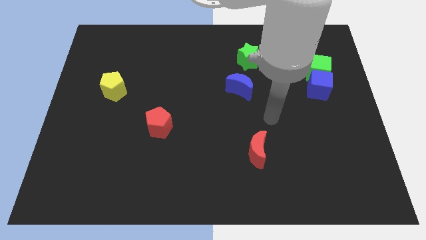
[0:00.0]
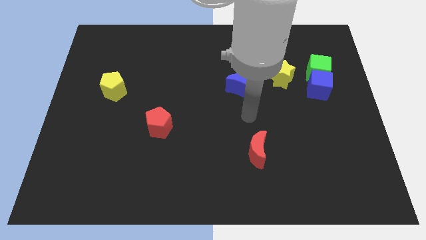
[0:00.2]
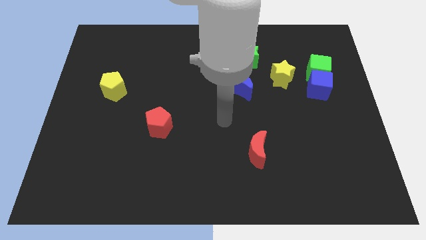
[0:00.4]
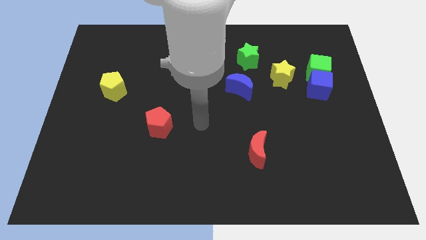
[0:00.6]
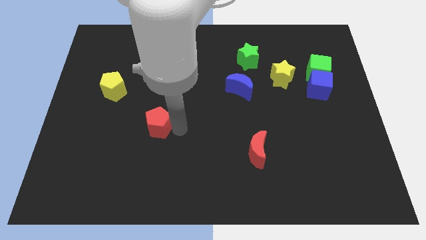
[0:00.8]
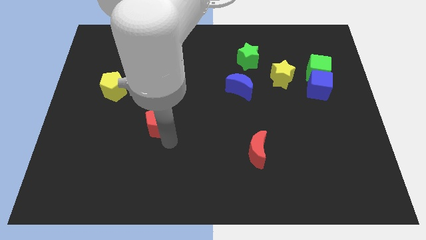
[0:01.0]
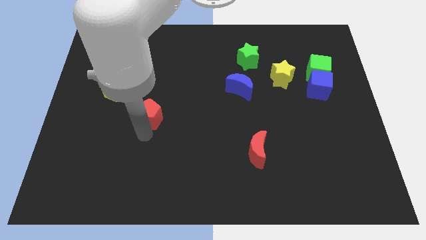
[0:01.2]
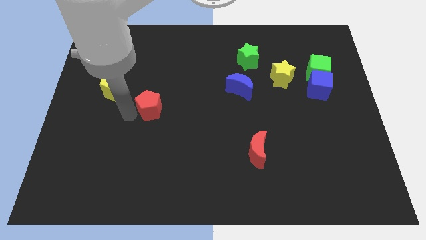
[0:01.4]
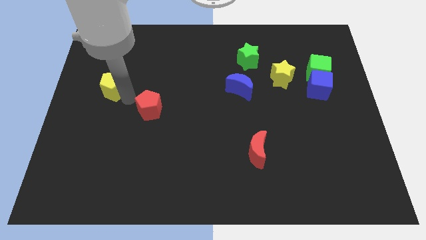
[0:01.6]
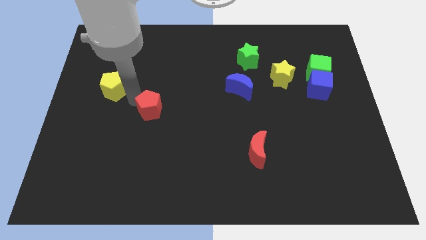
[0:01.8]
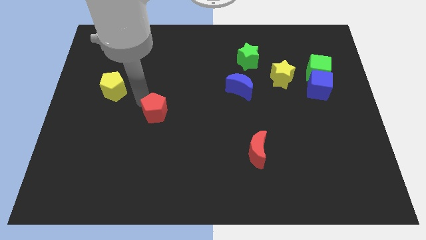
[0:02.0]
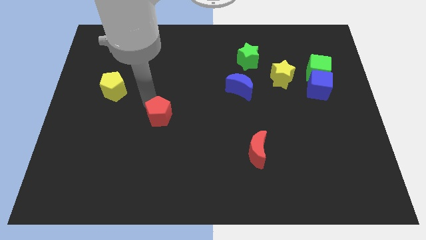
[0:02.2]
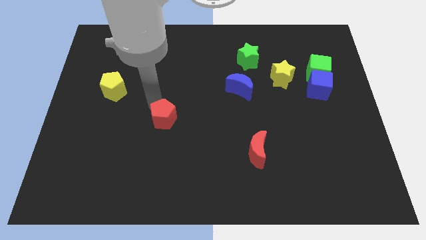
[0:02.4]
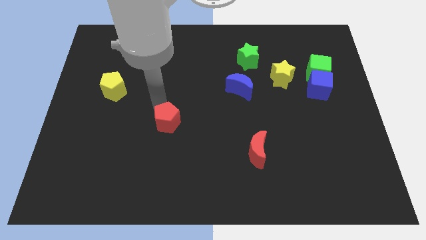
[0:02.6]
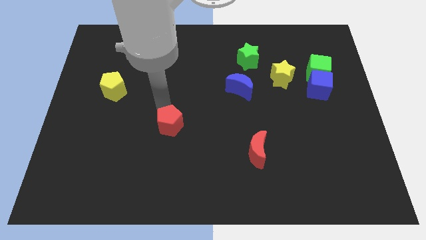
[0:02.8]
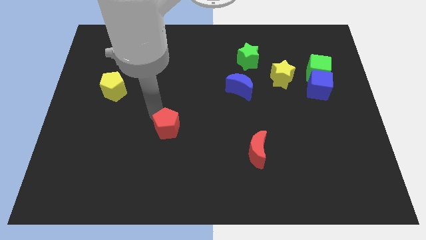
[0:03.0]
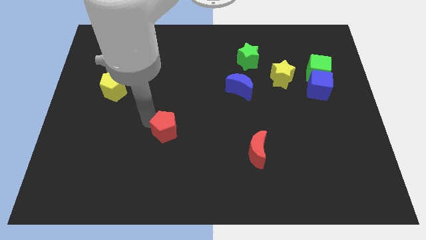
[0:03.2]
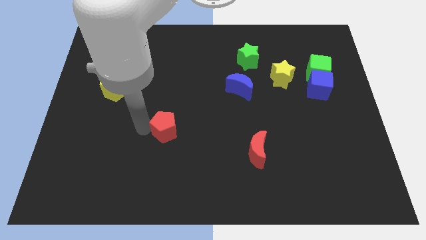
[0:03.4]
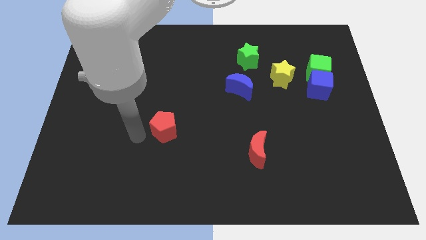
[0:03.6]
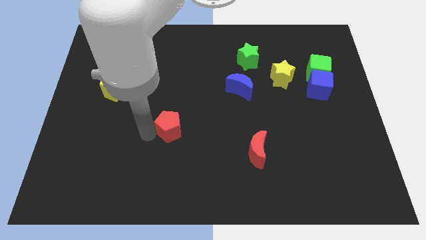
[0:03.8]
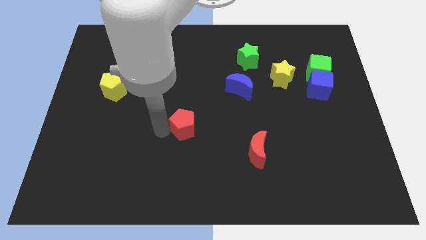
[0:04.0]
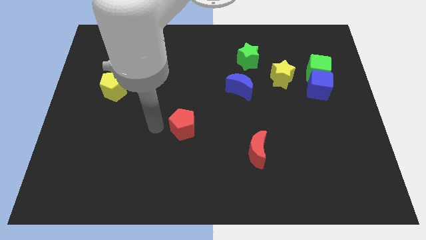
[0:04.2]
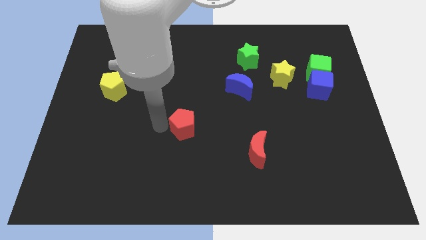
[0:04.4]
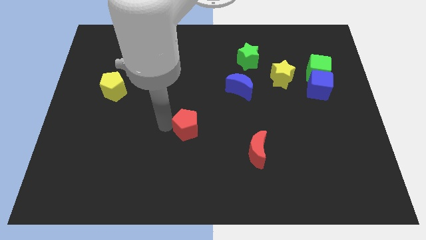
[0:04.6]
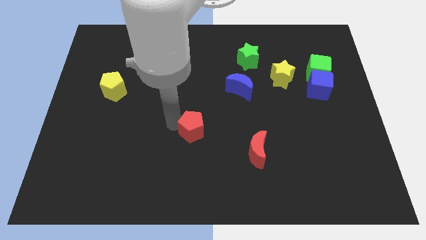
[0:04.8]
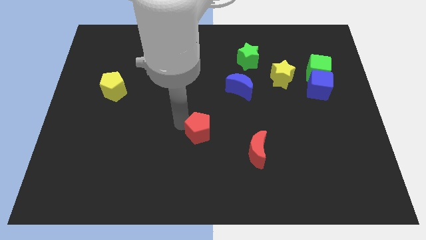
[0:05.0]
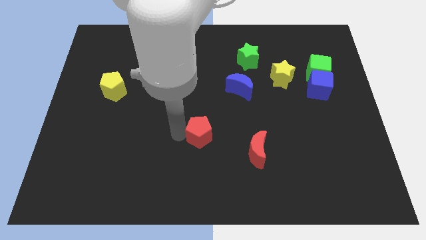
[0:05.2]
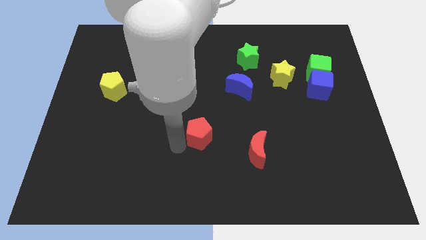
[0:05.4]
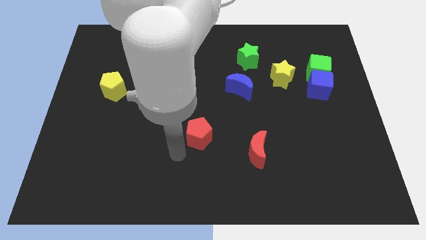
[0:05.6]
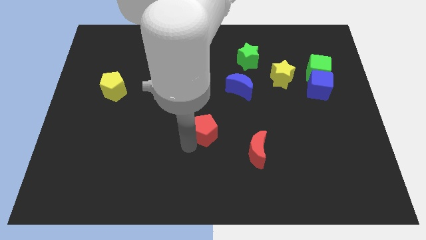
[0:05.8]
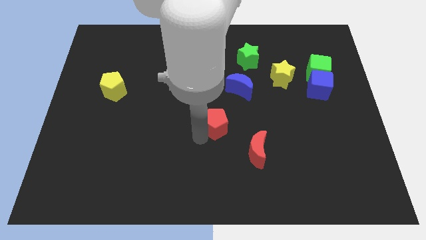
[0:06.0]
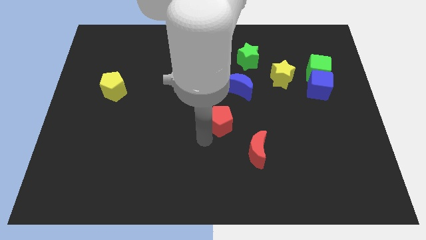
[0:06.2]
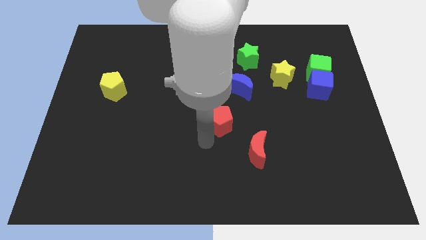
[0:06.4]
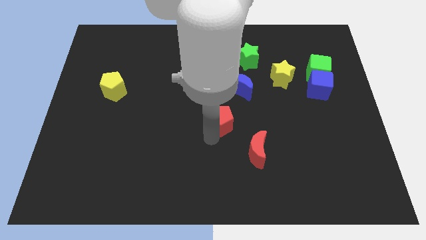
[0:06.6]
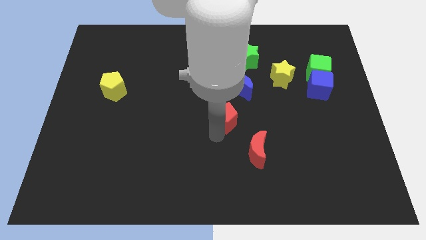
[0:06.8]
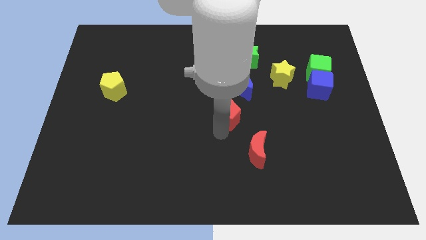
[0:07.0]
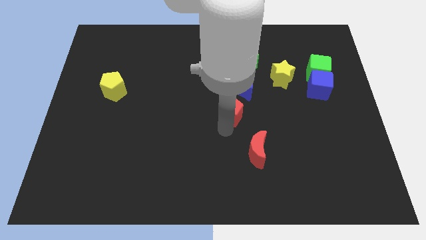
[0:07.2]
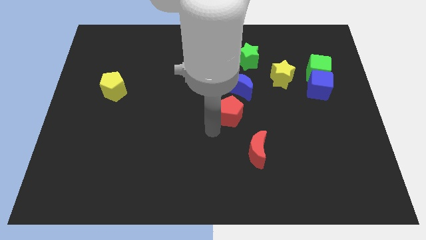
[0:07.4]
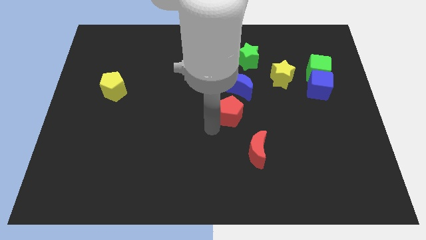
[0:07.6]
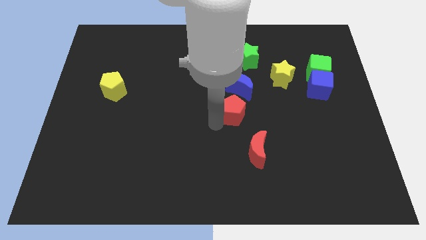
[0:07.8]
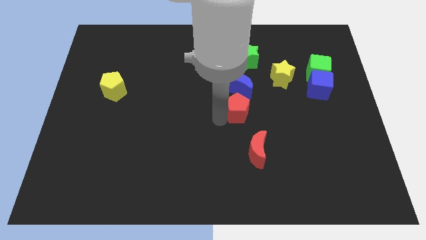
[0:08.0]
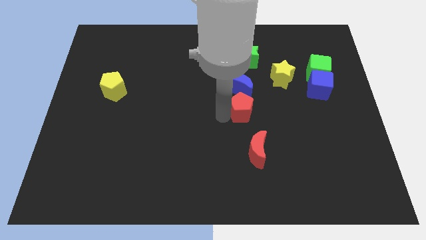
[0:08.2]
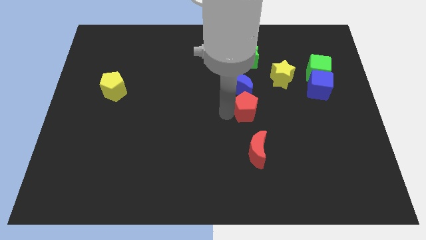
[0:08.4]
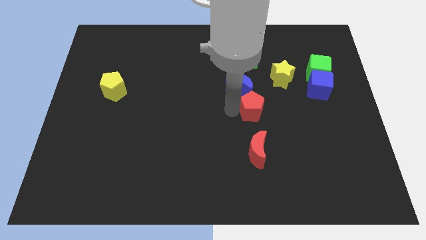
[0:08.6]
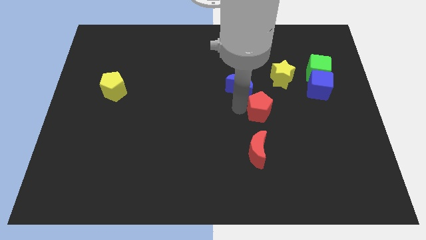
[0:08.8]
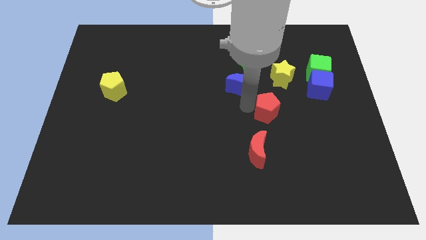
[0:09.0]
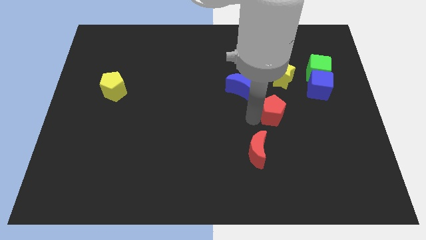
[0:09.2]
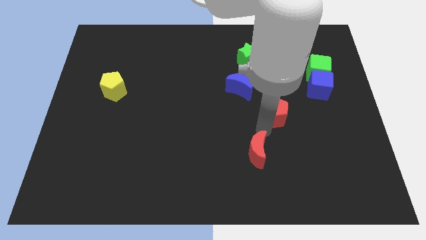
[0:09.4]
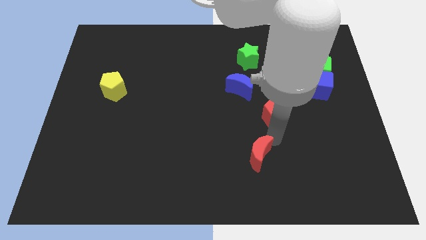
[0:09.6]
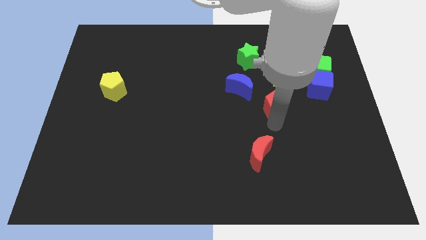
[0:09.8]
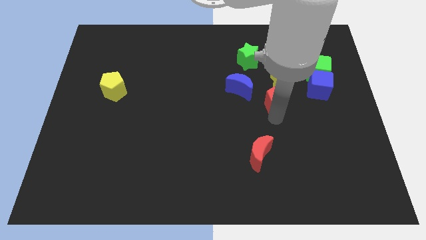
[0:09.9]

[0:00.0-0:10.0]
push the red pentagon to the left of the blue cube
